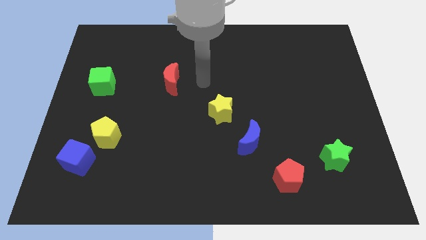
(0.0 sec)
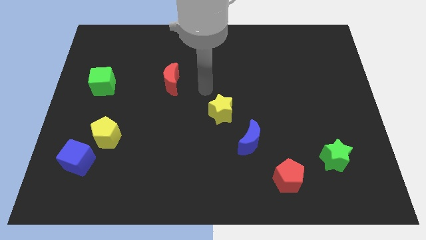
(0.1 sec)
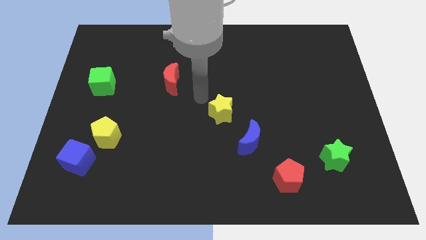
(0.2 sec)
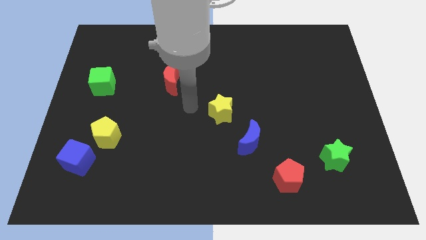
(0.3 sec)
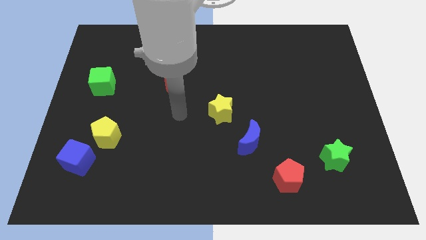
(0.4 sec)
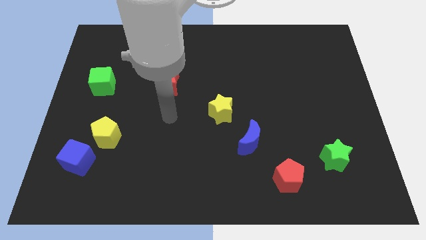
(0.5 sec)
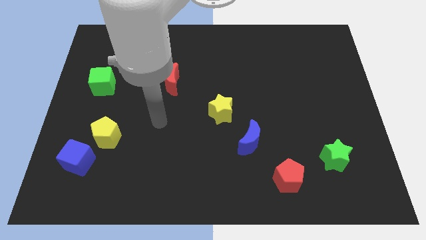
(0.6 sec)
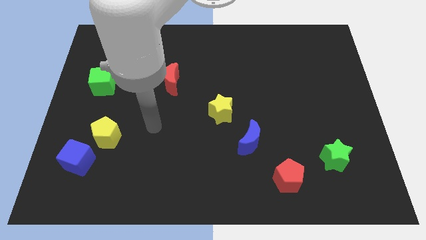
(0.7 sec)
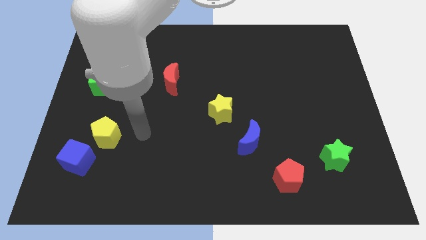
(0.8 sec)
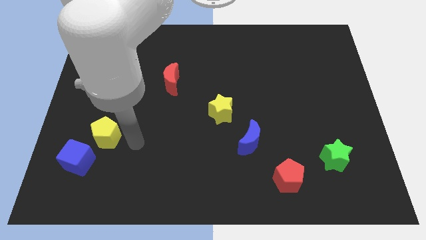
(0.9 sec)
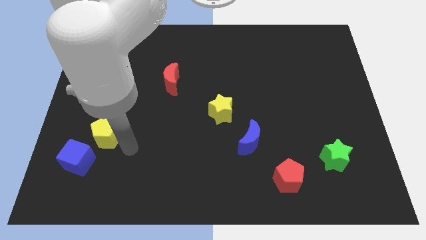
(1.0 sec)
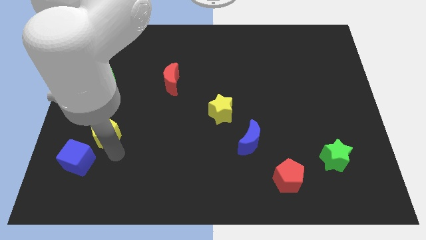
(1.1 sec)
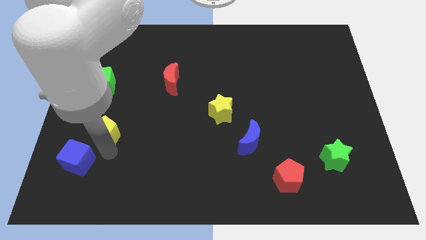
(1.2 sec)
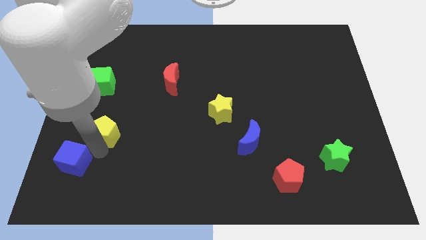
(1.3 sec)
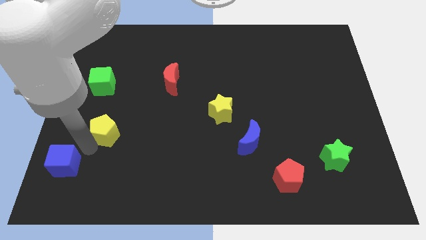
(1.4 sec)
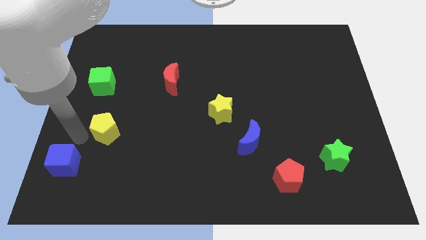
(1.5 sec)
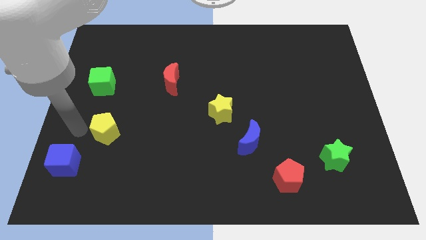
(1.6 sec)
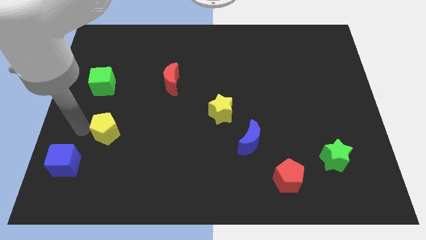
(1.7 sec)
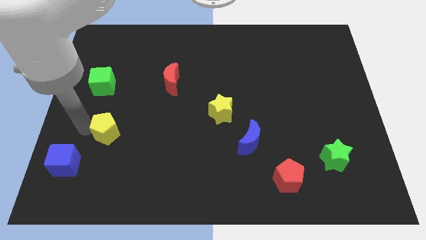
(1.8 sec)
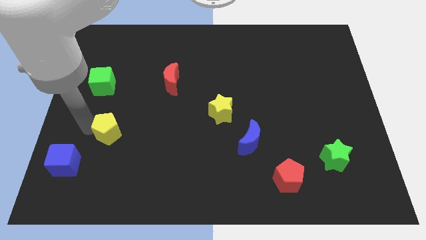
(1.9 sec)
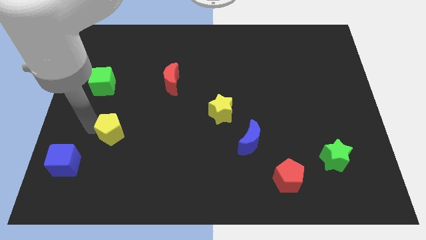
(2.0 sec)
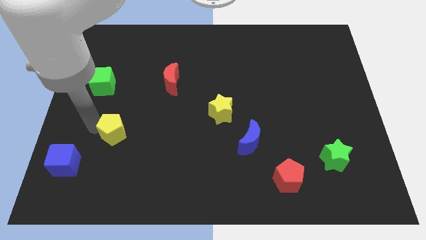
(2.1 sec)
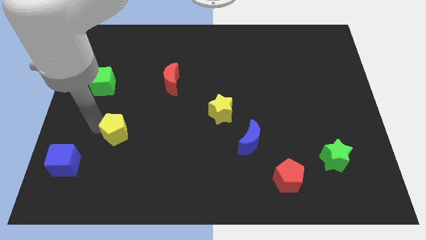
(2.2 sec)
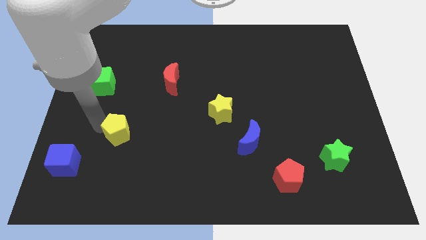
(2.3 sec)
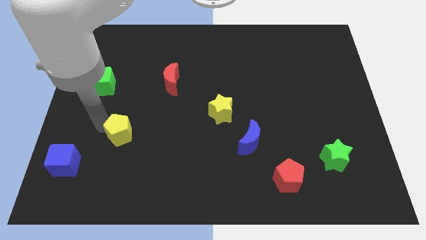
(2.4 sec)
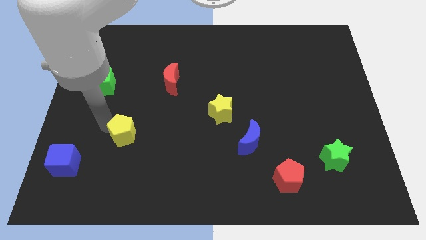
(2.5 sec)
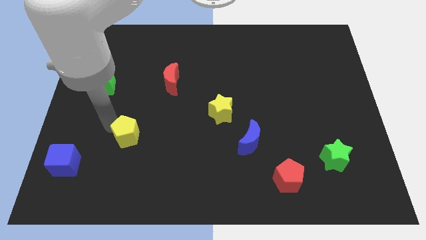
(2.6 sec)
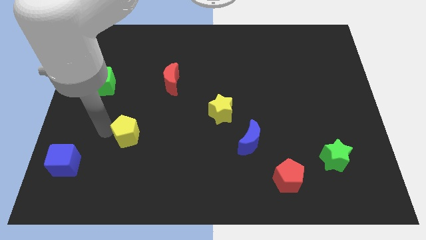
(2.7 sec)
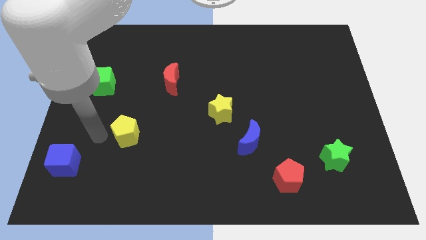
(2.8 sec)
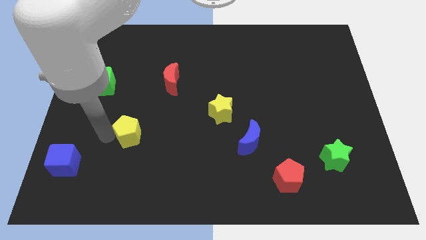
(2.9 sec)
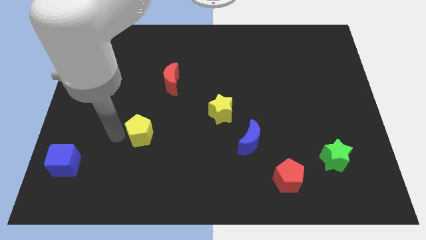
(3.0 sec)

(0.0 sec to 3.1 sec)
slide the yellow pentagon right slightly

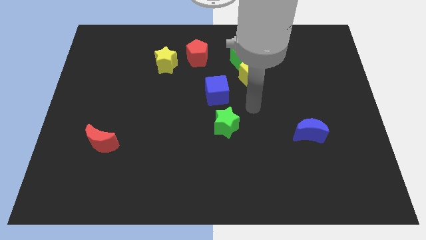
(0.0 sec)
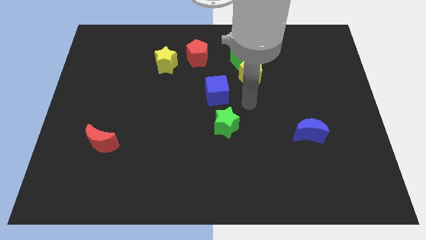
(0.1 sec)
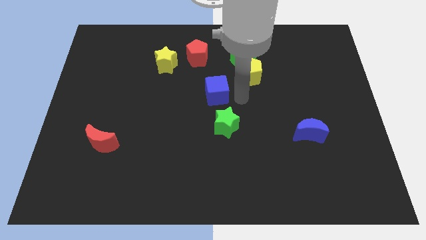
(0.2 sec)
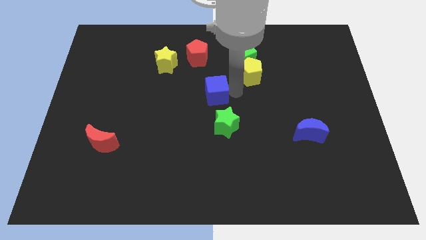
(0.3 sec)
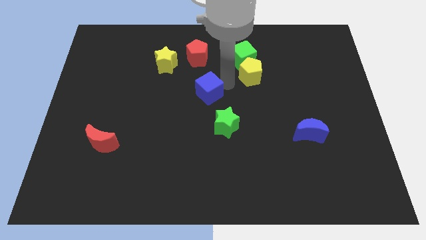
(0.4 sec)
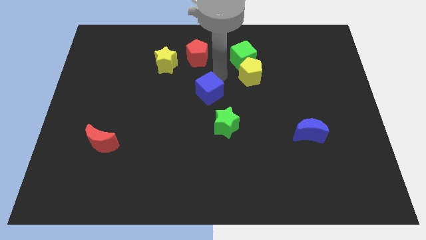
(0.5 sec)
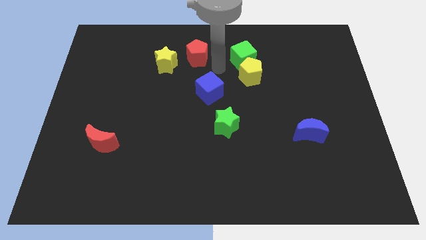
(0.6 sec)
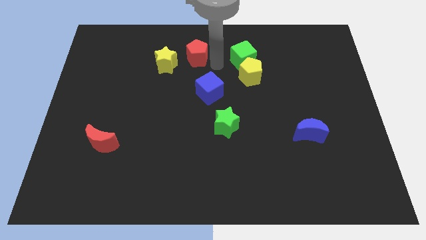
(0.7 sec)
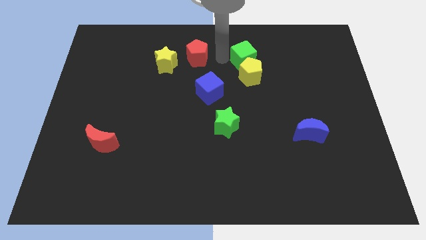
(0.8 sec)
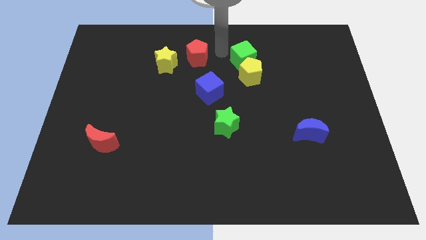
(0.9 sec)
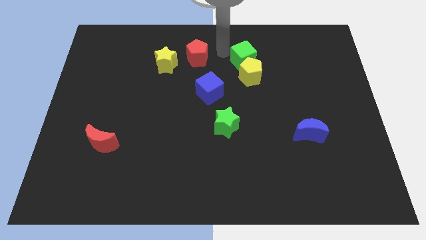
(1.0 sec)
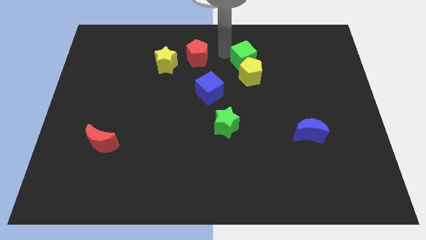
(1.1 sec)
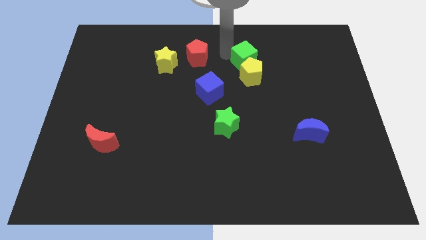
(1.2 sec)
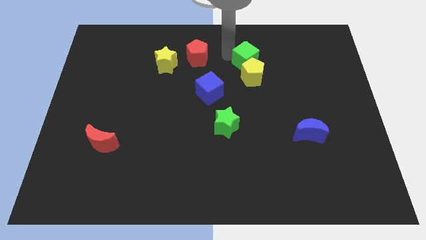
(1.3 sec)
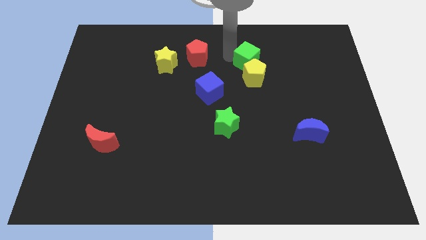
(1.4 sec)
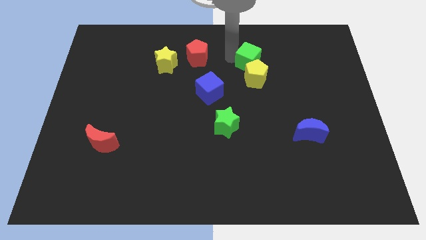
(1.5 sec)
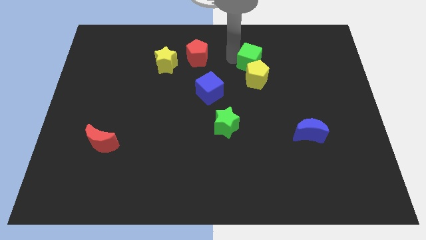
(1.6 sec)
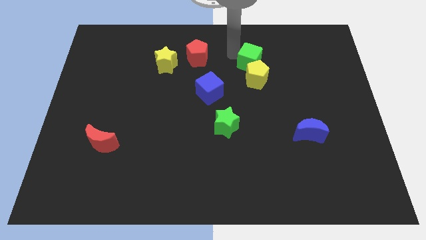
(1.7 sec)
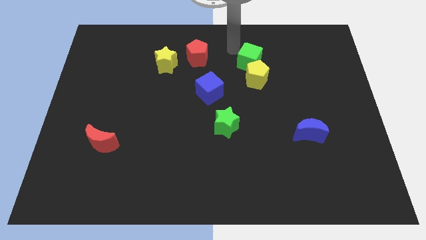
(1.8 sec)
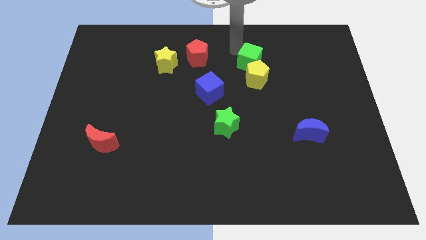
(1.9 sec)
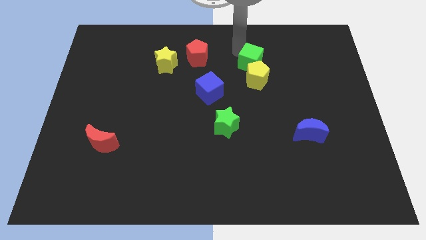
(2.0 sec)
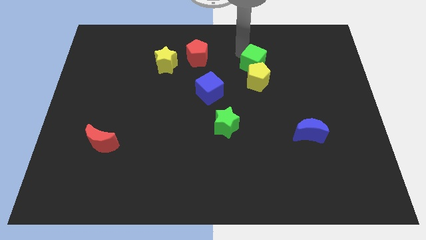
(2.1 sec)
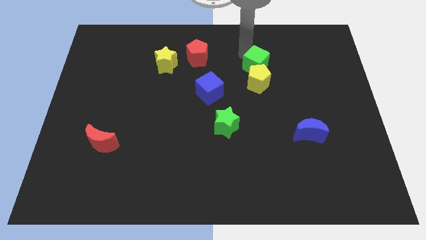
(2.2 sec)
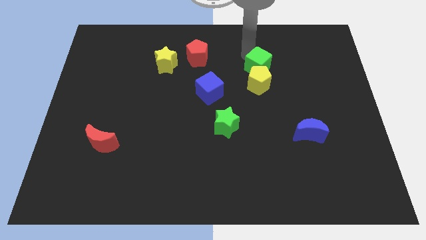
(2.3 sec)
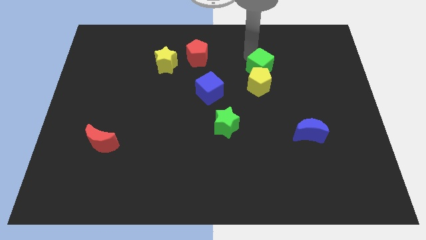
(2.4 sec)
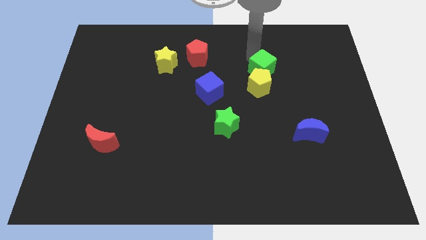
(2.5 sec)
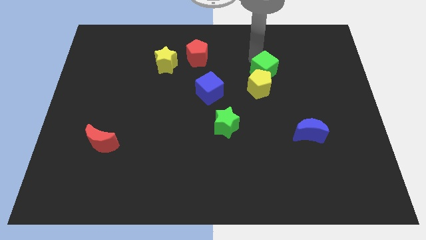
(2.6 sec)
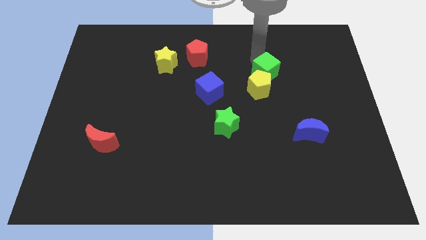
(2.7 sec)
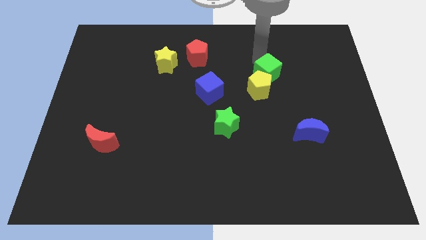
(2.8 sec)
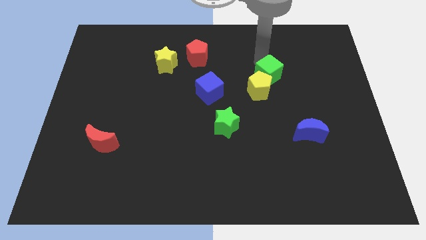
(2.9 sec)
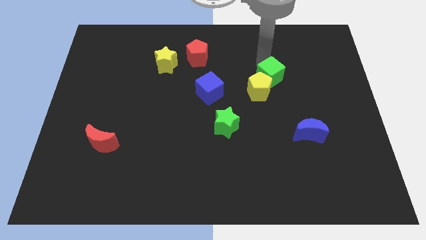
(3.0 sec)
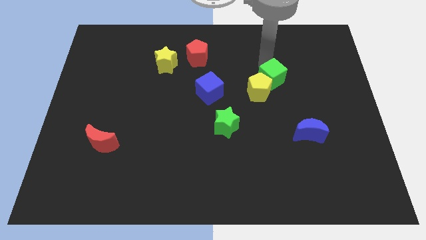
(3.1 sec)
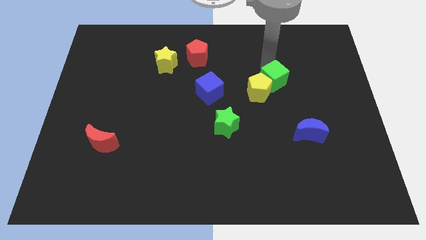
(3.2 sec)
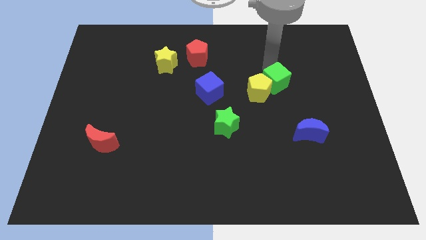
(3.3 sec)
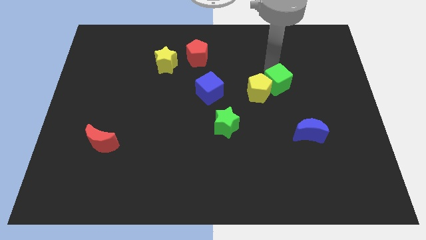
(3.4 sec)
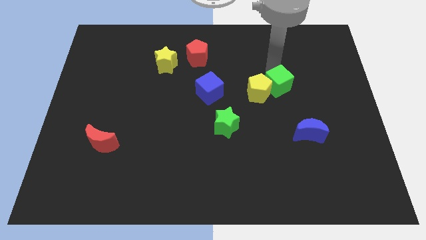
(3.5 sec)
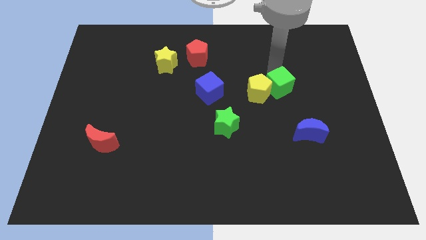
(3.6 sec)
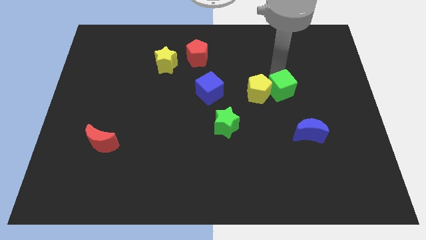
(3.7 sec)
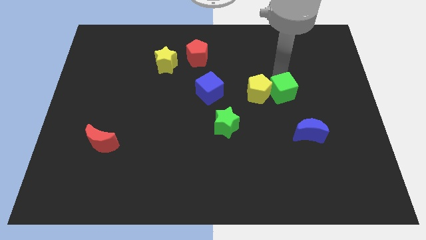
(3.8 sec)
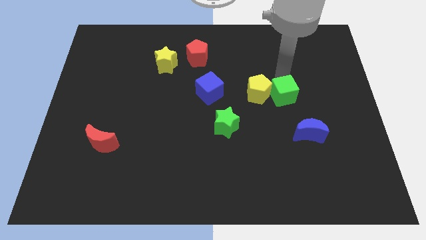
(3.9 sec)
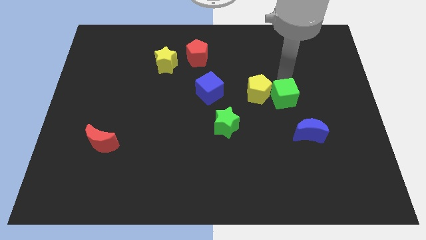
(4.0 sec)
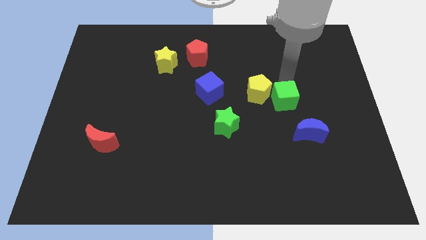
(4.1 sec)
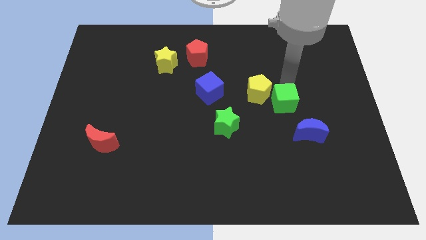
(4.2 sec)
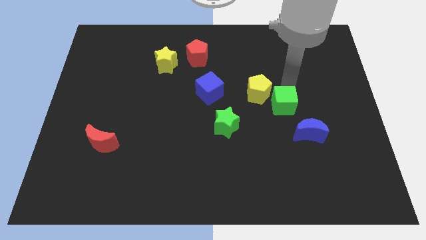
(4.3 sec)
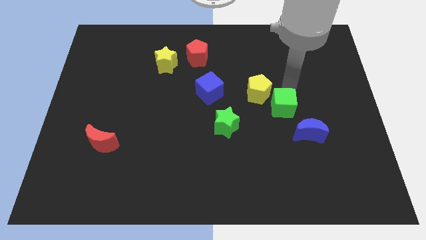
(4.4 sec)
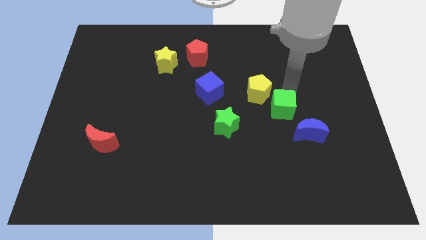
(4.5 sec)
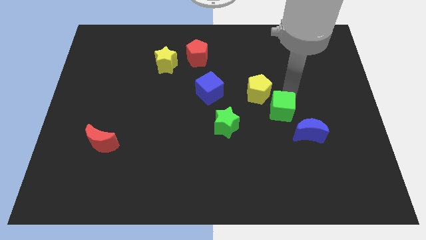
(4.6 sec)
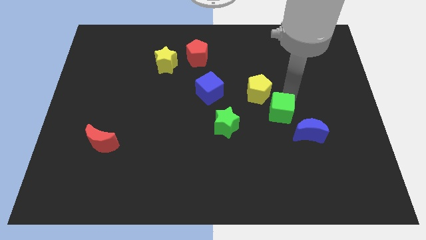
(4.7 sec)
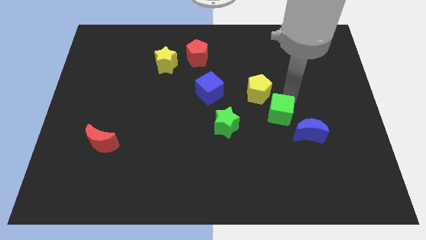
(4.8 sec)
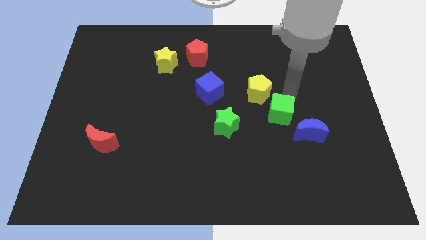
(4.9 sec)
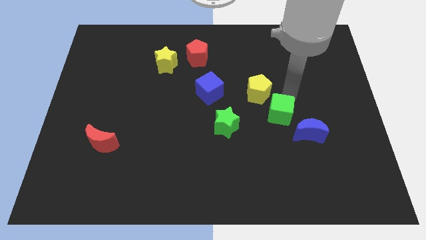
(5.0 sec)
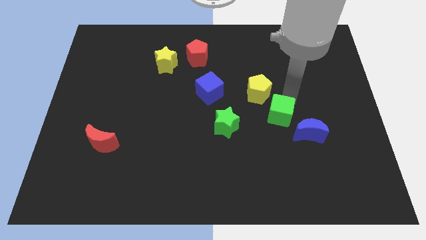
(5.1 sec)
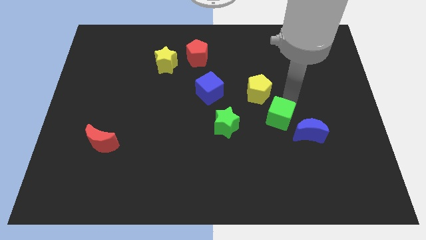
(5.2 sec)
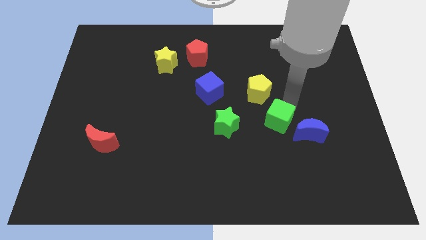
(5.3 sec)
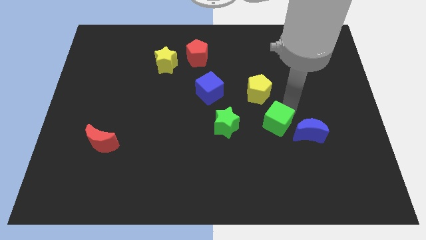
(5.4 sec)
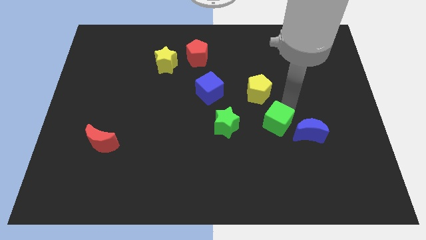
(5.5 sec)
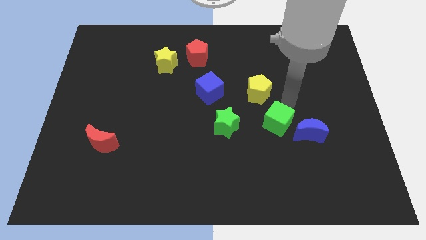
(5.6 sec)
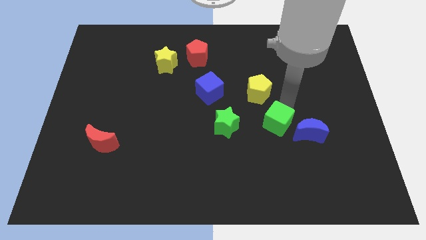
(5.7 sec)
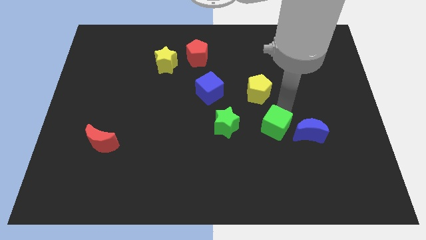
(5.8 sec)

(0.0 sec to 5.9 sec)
move the green cube down
